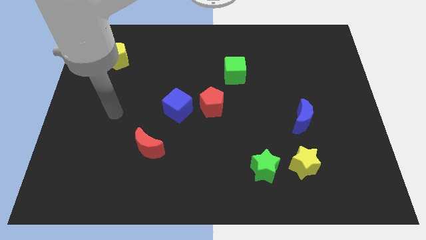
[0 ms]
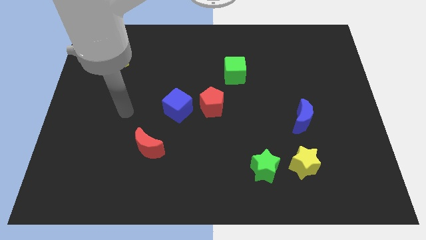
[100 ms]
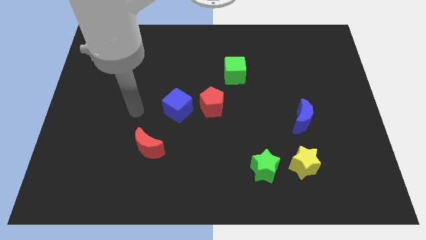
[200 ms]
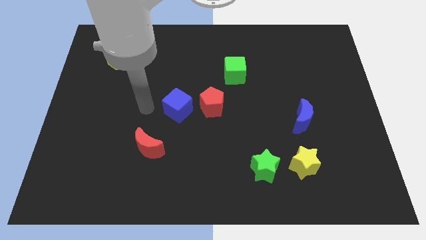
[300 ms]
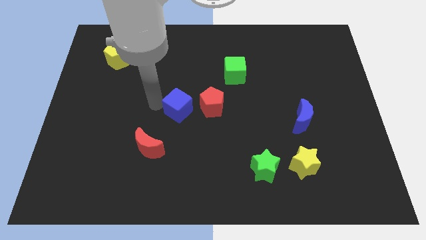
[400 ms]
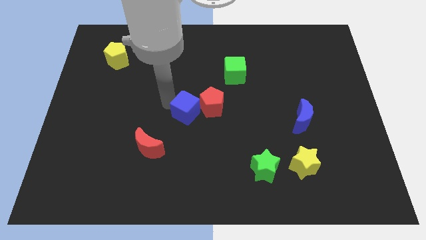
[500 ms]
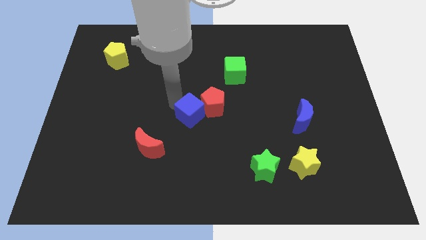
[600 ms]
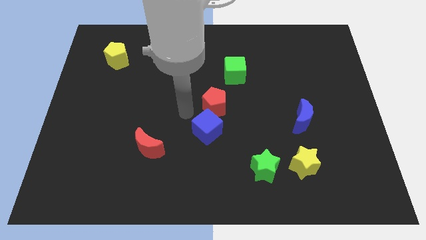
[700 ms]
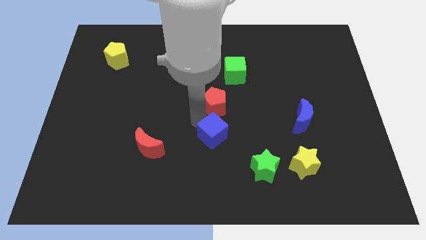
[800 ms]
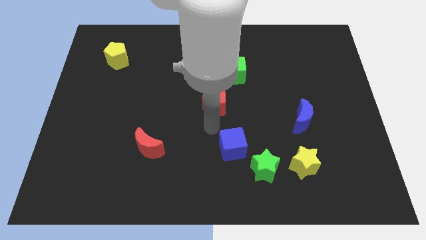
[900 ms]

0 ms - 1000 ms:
move the red pentagon away from the blue cube

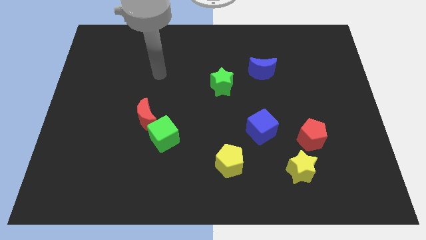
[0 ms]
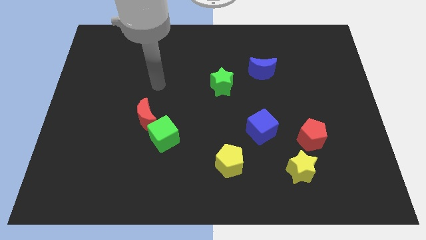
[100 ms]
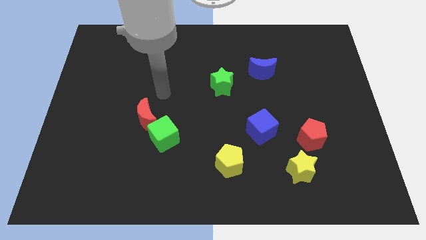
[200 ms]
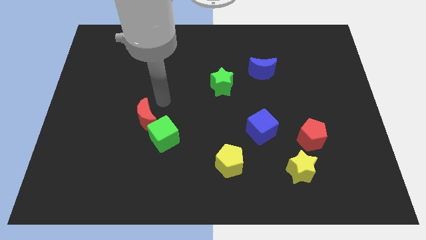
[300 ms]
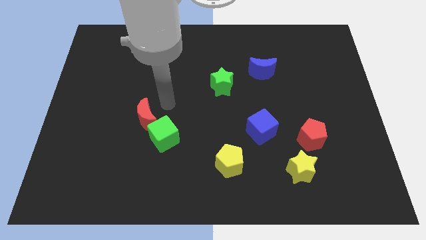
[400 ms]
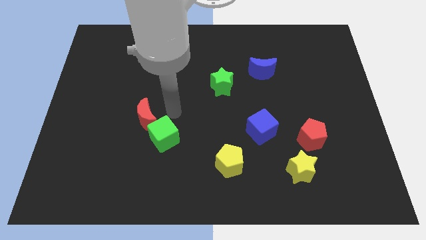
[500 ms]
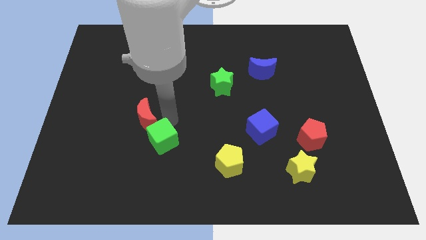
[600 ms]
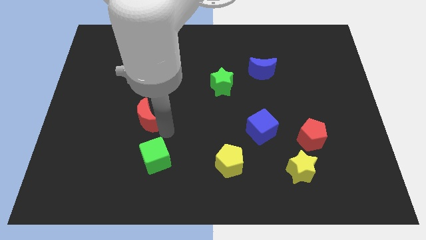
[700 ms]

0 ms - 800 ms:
pull the red moon apart from the green cube

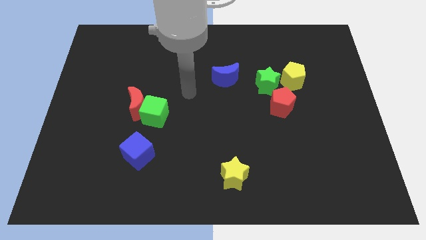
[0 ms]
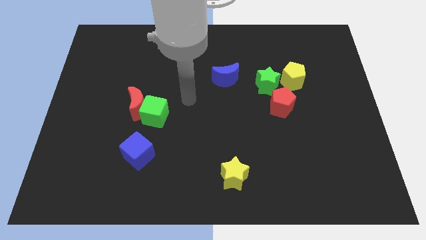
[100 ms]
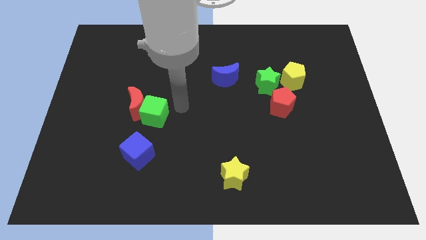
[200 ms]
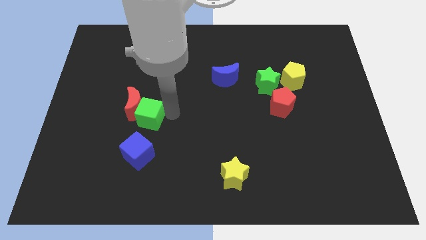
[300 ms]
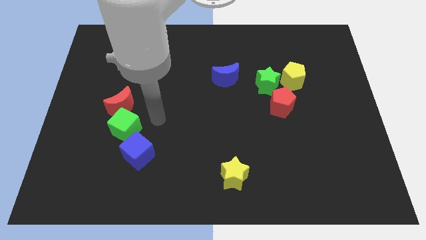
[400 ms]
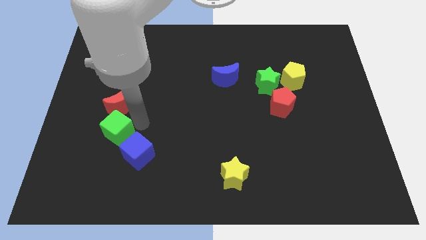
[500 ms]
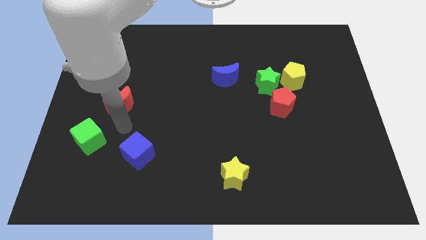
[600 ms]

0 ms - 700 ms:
move the red moon away from the green cube

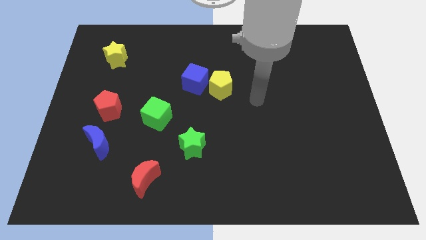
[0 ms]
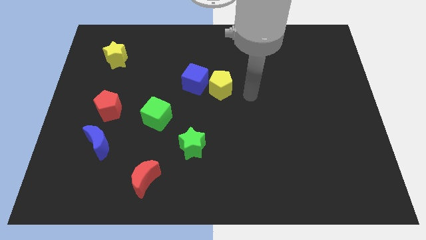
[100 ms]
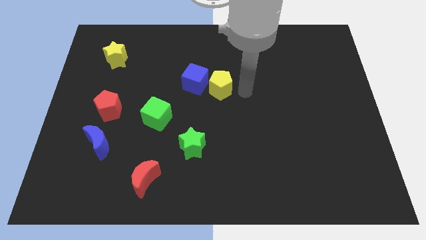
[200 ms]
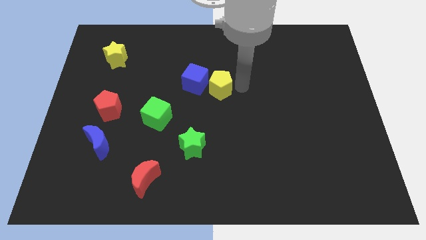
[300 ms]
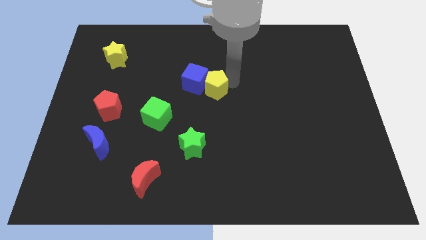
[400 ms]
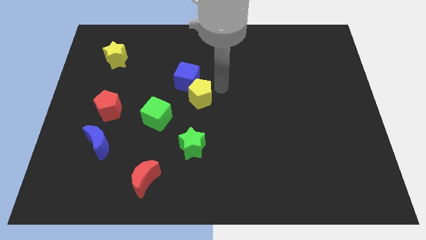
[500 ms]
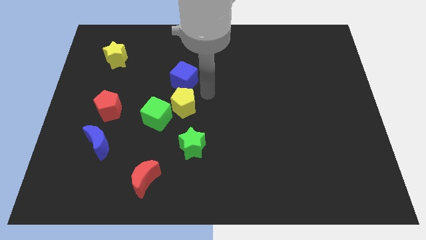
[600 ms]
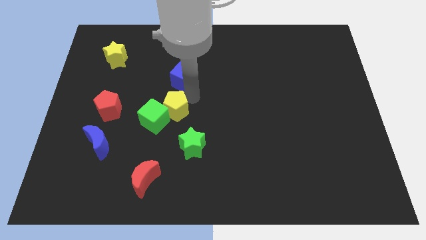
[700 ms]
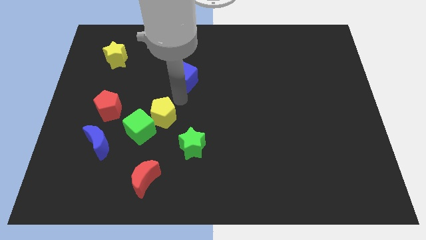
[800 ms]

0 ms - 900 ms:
pull the blue cube apart from the yellow pentagon

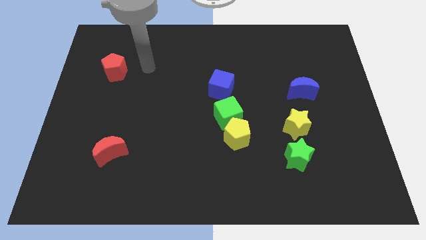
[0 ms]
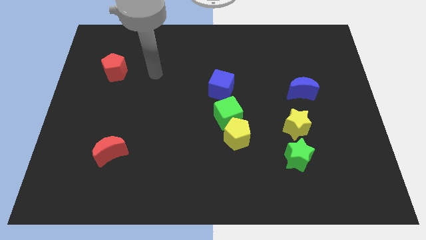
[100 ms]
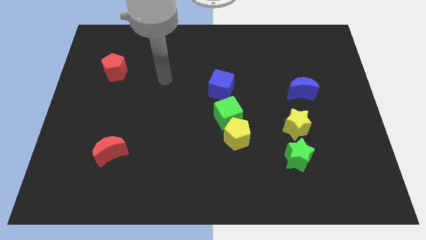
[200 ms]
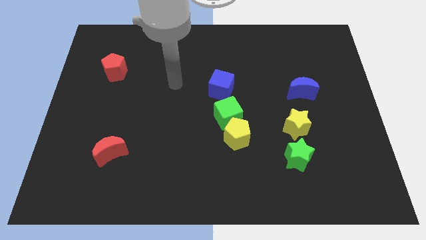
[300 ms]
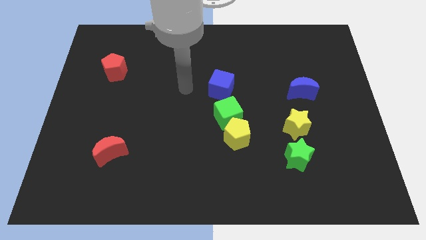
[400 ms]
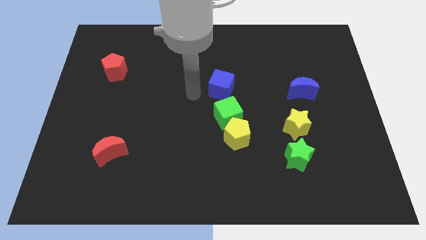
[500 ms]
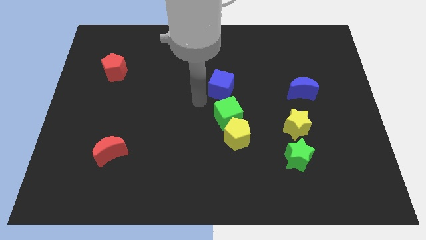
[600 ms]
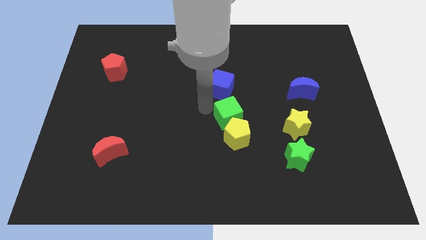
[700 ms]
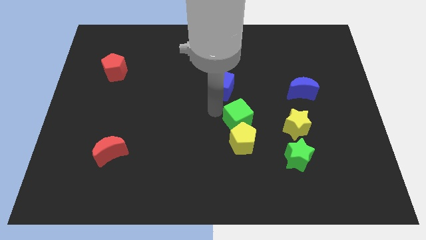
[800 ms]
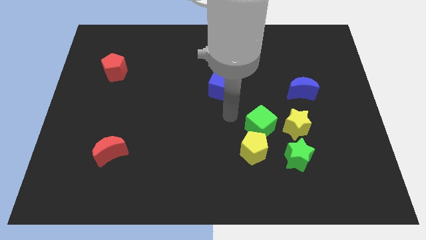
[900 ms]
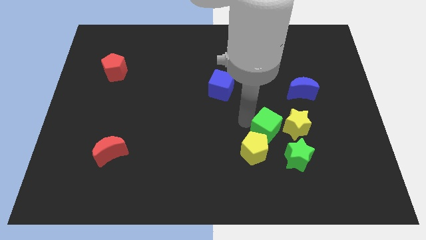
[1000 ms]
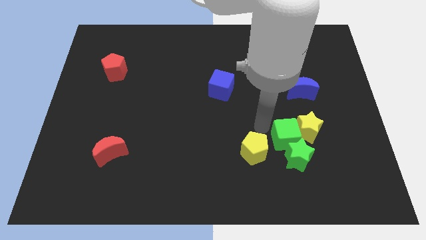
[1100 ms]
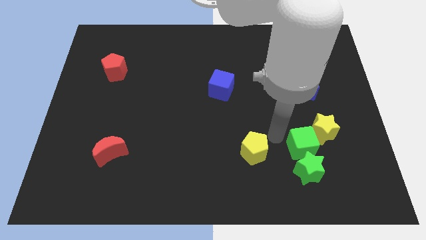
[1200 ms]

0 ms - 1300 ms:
move the yellow pentagon away from the green cube

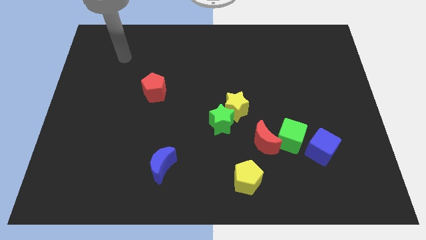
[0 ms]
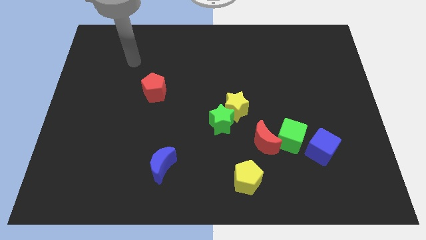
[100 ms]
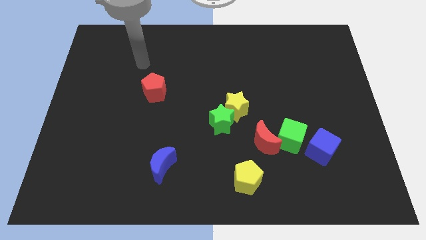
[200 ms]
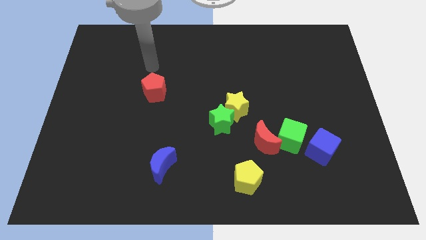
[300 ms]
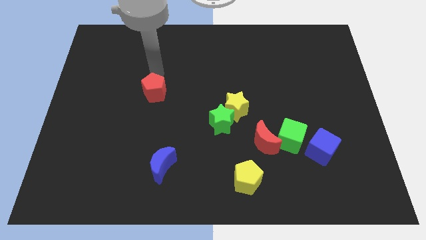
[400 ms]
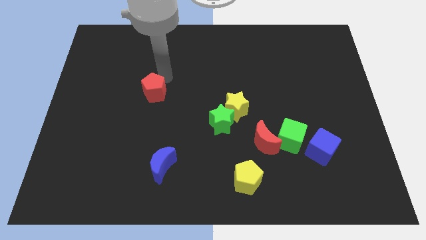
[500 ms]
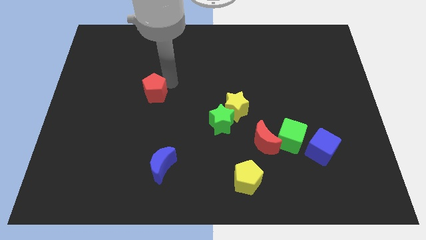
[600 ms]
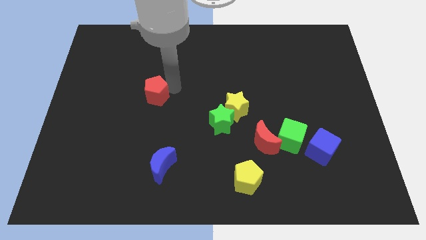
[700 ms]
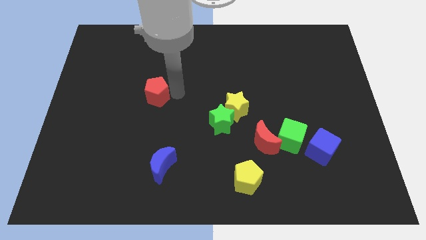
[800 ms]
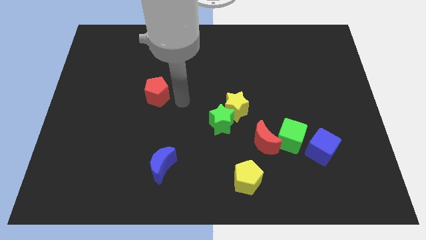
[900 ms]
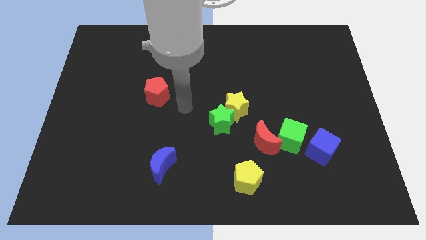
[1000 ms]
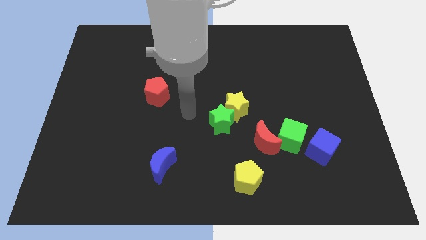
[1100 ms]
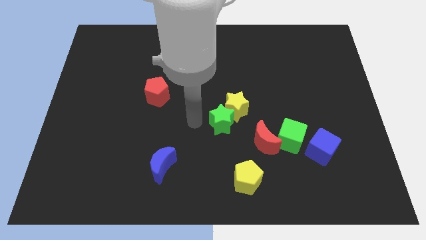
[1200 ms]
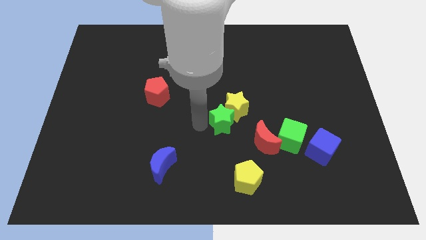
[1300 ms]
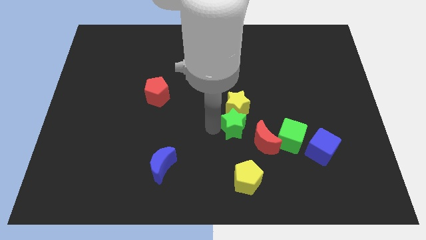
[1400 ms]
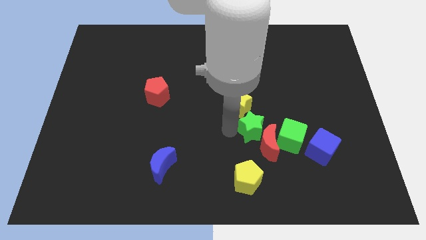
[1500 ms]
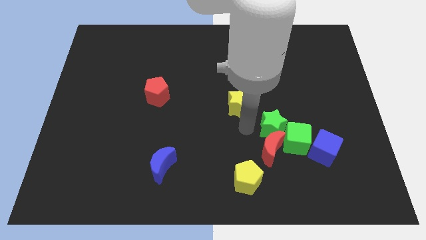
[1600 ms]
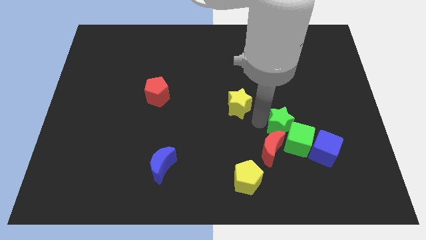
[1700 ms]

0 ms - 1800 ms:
move the yellow star away from the green star

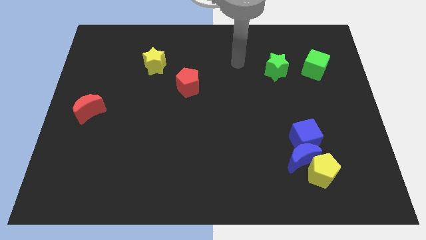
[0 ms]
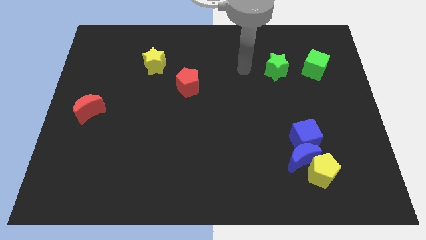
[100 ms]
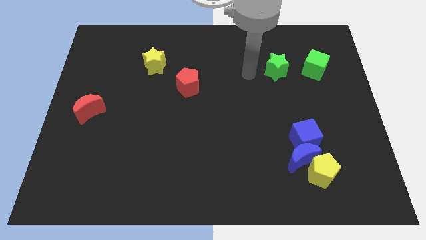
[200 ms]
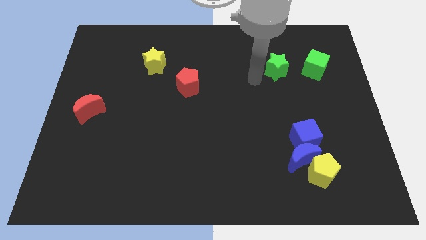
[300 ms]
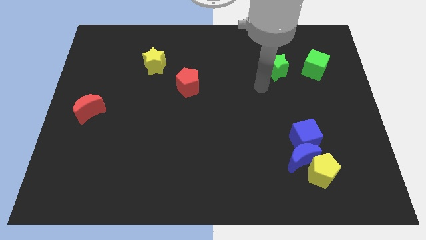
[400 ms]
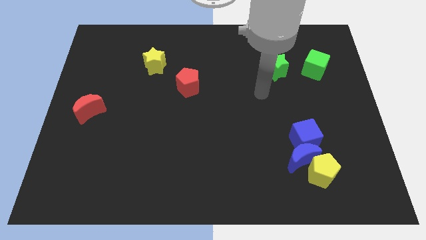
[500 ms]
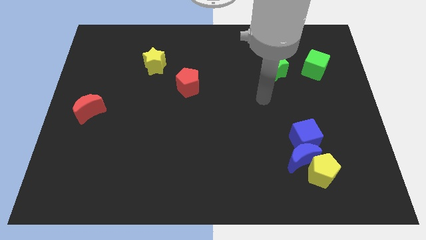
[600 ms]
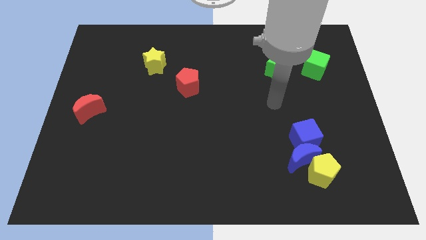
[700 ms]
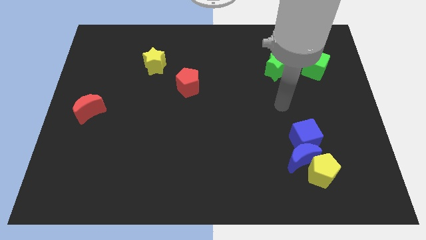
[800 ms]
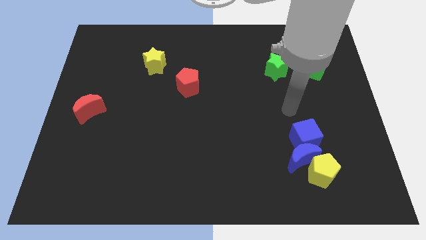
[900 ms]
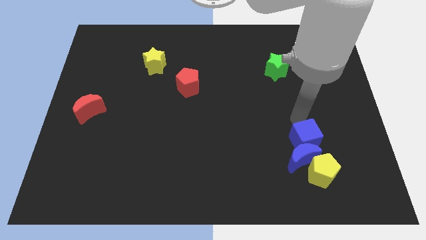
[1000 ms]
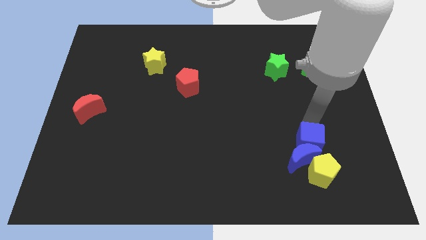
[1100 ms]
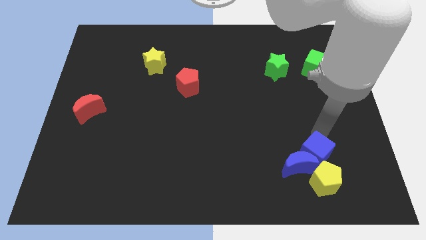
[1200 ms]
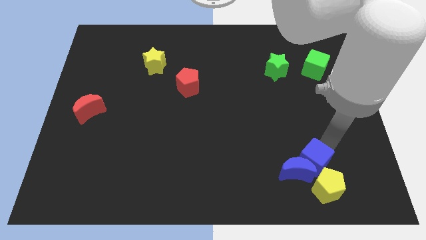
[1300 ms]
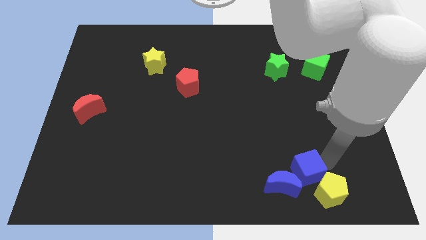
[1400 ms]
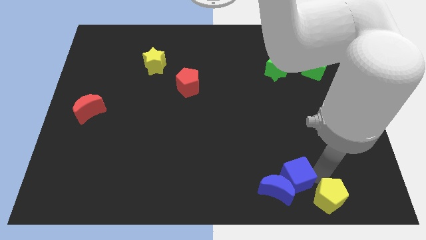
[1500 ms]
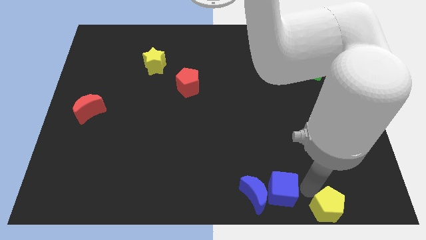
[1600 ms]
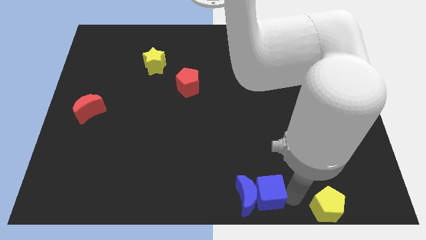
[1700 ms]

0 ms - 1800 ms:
separate the blue moon from the yellow pentagon and blue cube

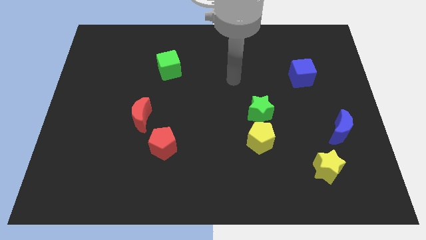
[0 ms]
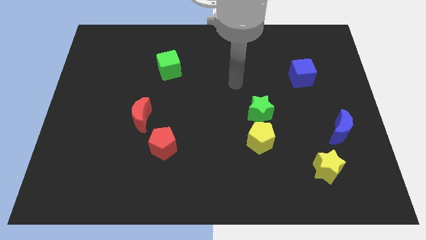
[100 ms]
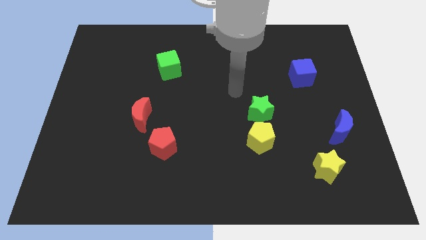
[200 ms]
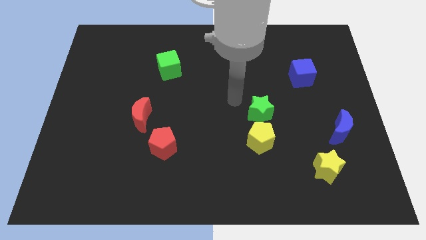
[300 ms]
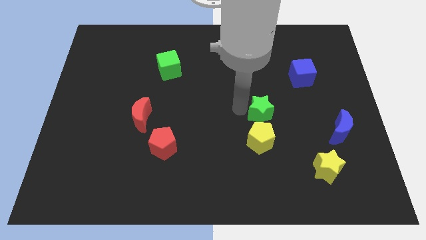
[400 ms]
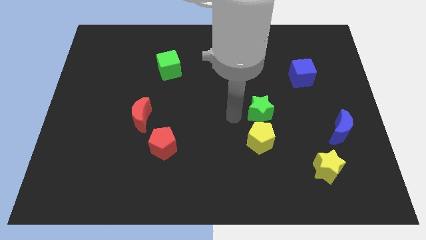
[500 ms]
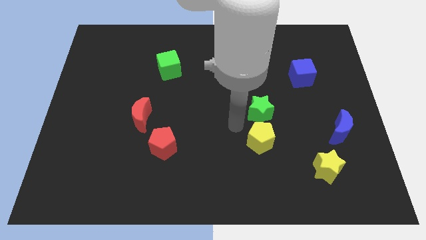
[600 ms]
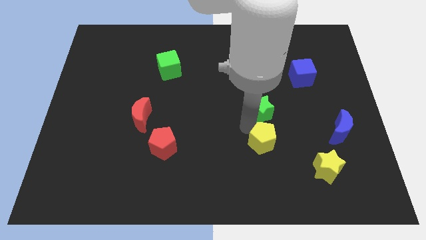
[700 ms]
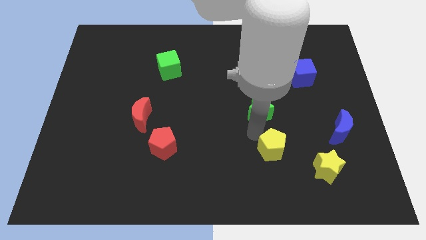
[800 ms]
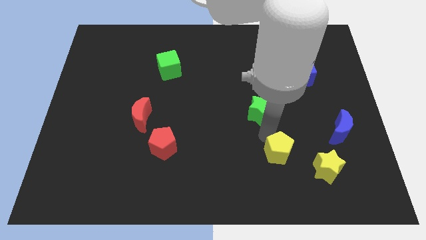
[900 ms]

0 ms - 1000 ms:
move the green star away from the yellow pentagon
